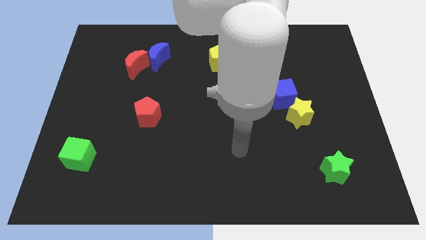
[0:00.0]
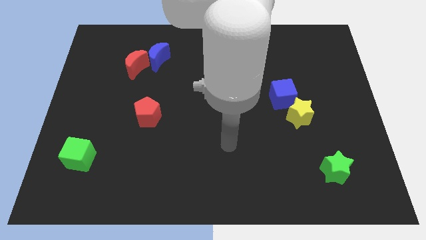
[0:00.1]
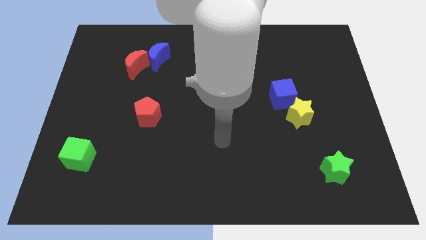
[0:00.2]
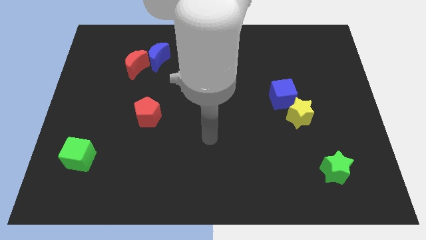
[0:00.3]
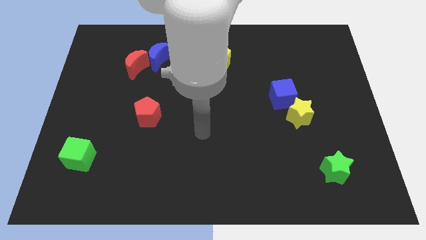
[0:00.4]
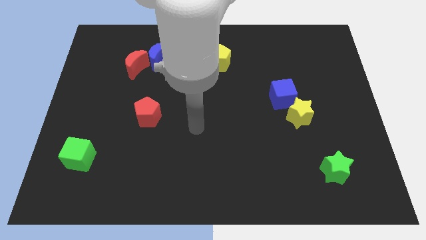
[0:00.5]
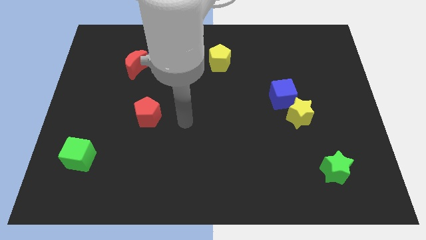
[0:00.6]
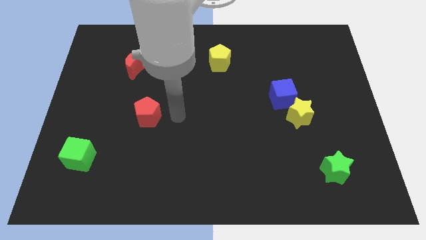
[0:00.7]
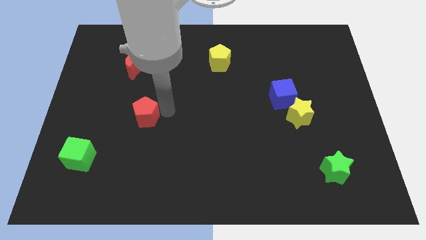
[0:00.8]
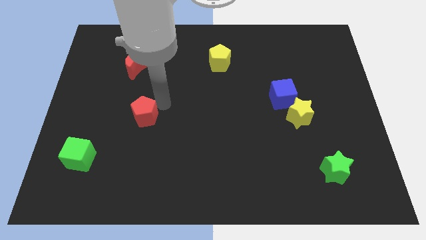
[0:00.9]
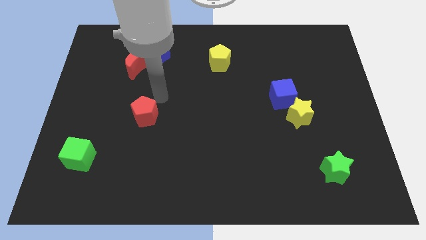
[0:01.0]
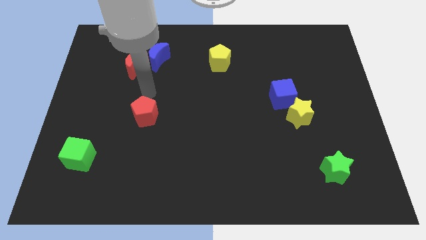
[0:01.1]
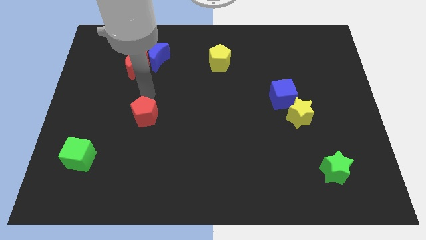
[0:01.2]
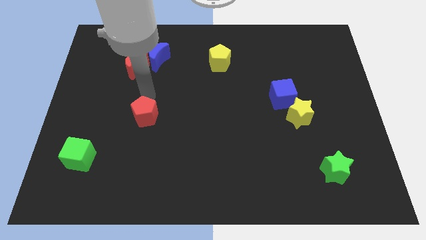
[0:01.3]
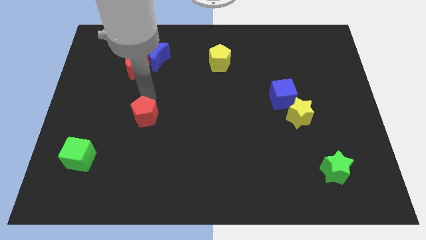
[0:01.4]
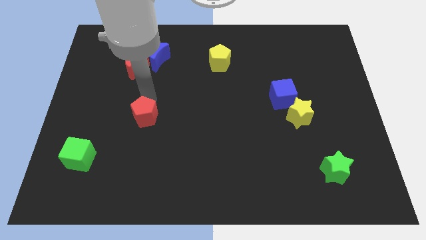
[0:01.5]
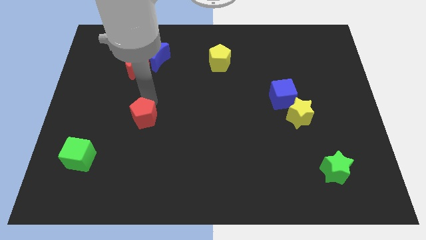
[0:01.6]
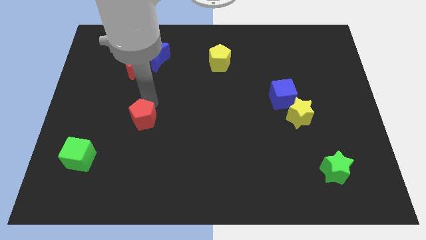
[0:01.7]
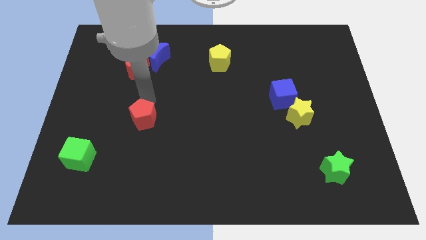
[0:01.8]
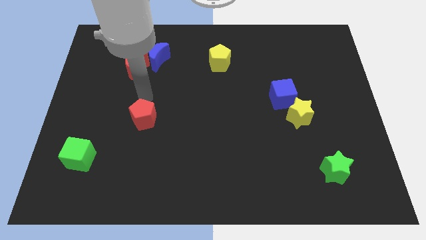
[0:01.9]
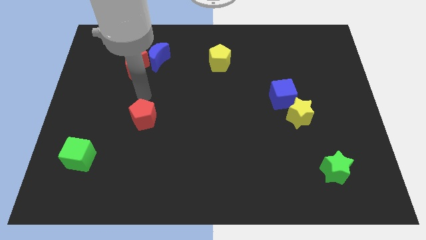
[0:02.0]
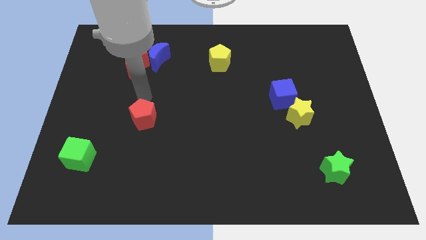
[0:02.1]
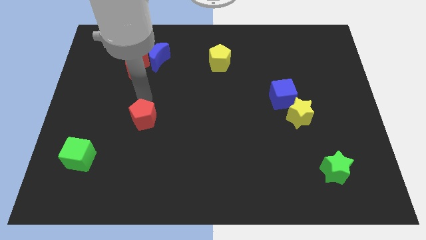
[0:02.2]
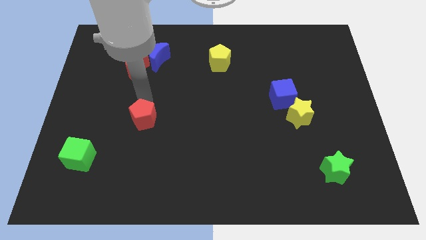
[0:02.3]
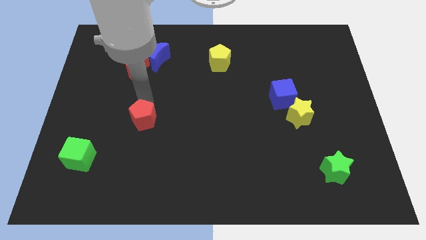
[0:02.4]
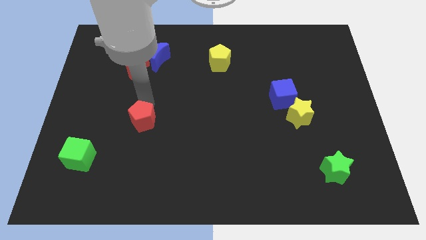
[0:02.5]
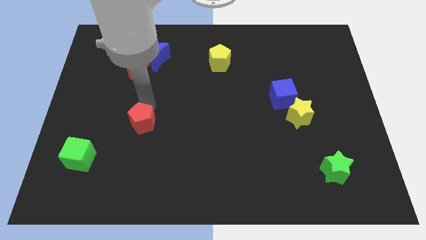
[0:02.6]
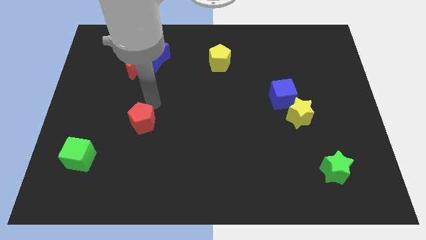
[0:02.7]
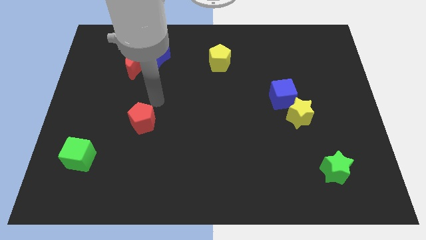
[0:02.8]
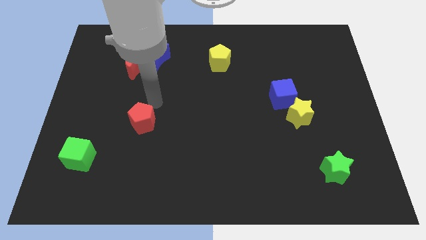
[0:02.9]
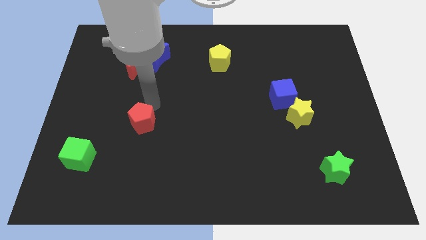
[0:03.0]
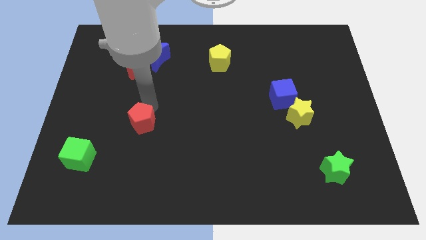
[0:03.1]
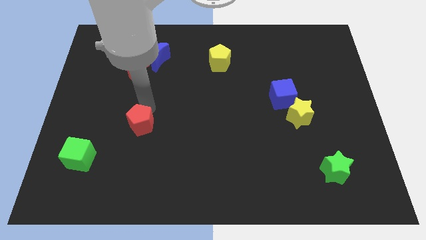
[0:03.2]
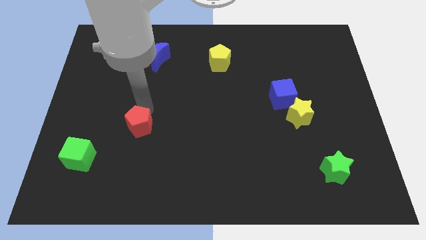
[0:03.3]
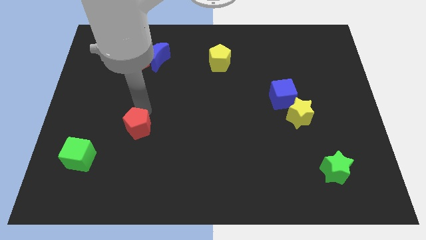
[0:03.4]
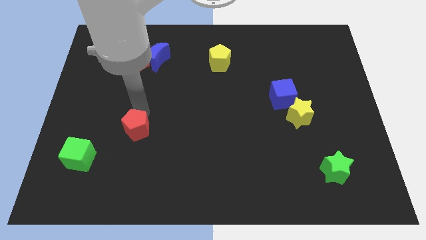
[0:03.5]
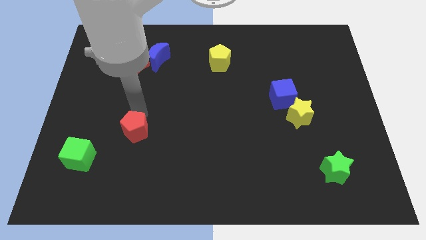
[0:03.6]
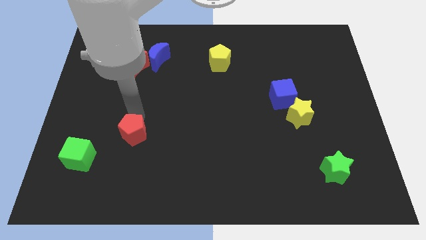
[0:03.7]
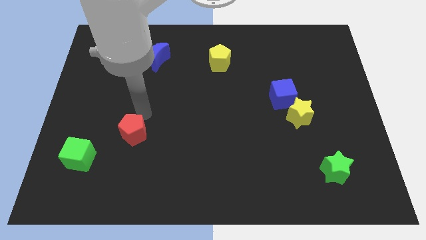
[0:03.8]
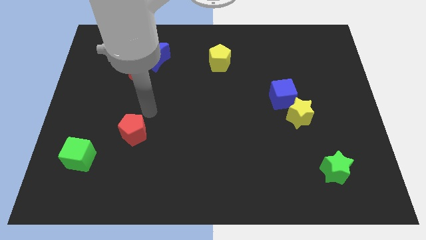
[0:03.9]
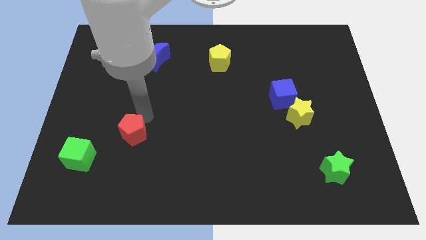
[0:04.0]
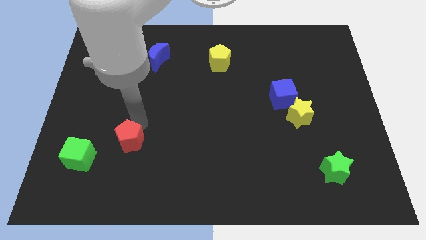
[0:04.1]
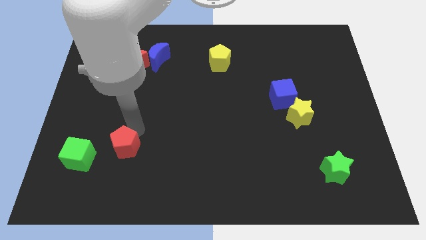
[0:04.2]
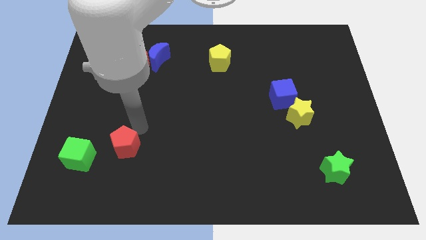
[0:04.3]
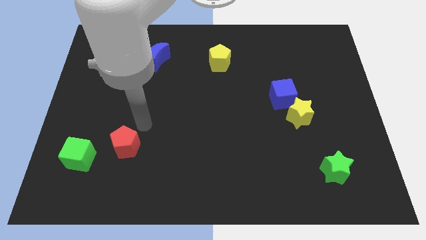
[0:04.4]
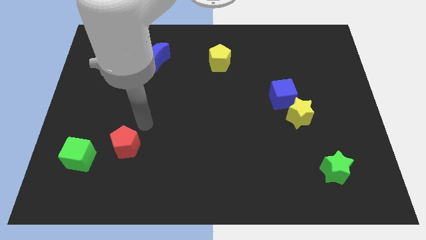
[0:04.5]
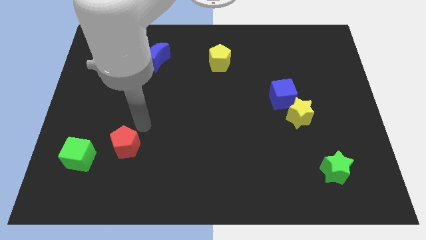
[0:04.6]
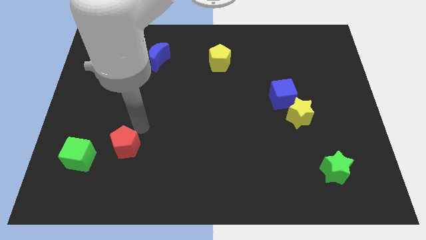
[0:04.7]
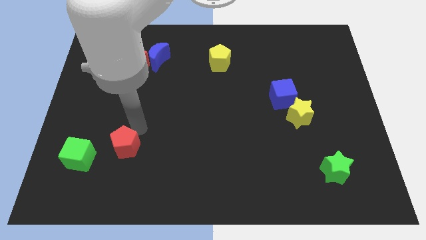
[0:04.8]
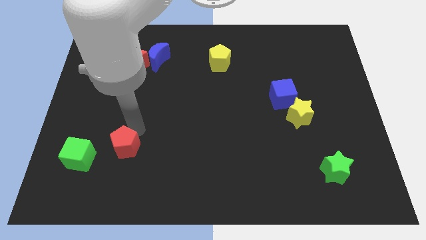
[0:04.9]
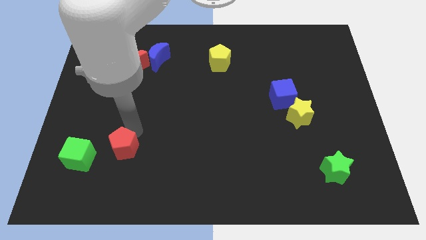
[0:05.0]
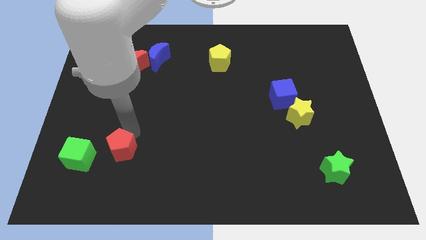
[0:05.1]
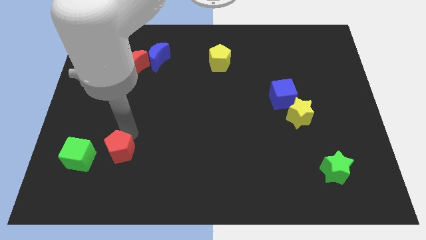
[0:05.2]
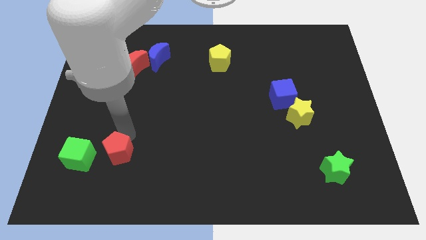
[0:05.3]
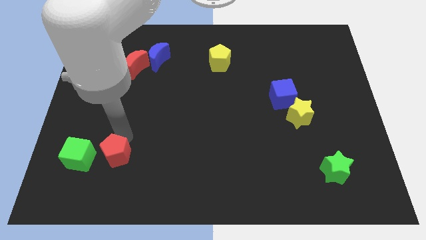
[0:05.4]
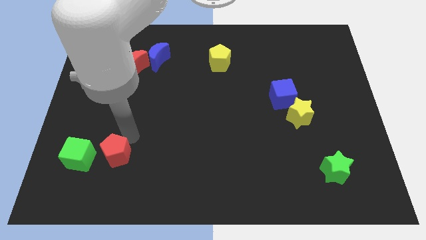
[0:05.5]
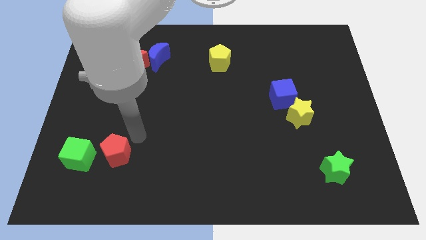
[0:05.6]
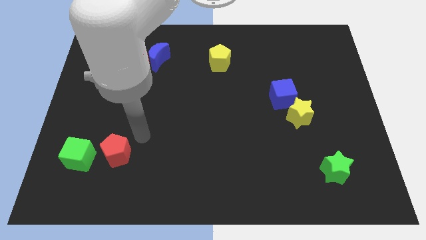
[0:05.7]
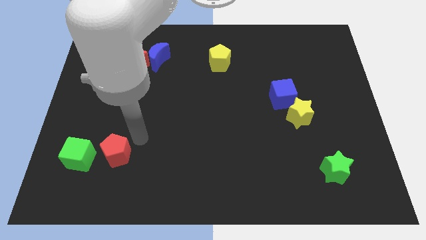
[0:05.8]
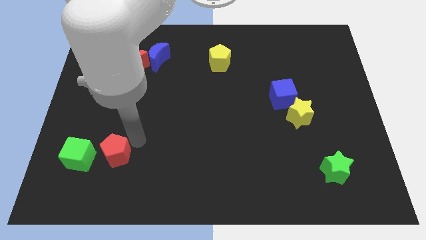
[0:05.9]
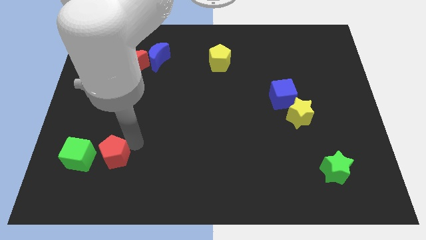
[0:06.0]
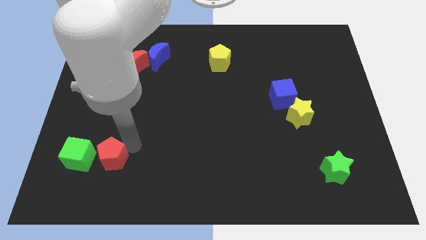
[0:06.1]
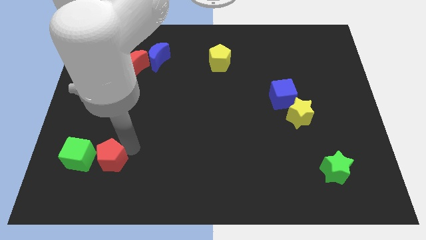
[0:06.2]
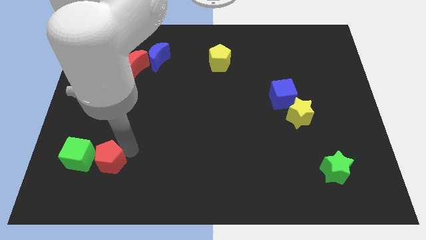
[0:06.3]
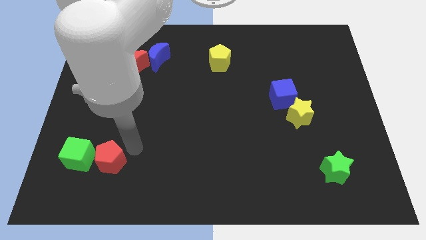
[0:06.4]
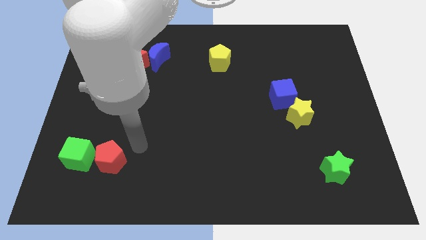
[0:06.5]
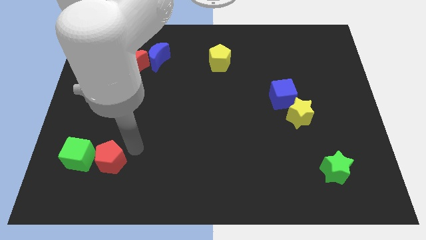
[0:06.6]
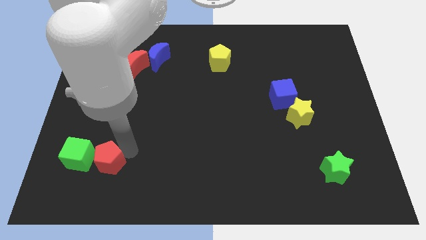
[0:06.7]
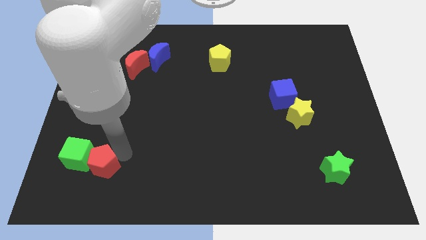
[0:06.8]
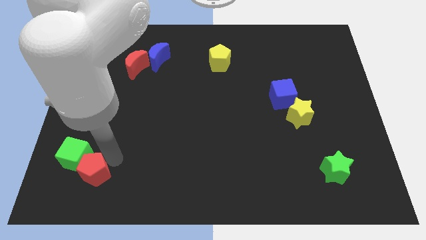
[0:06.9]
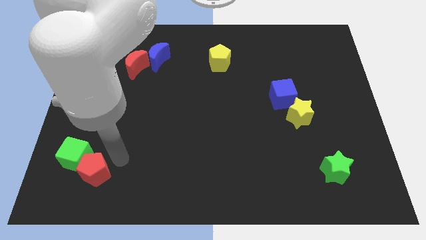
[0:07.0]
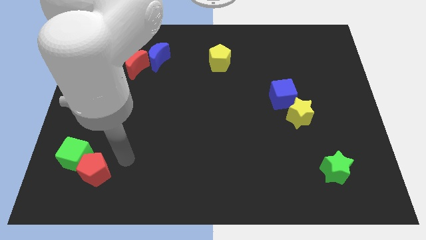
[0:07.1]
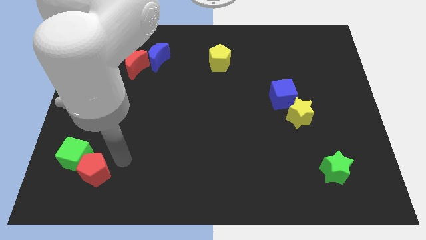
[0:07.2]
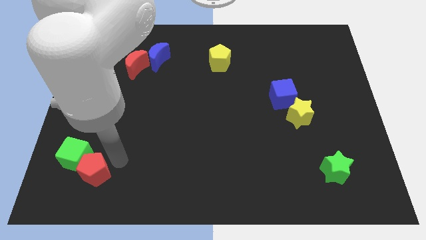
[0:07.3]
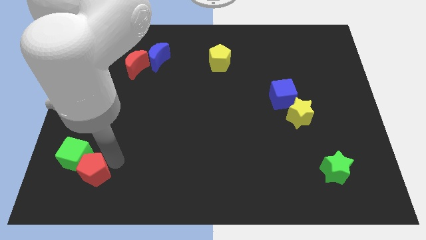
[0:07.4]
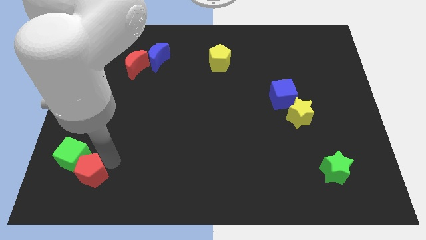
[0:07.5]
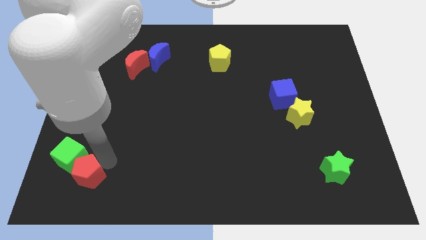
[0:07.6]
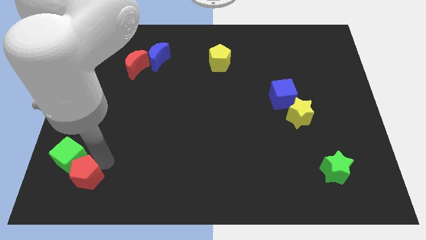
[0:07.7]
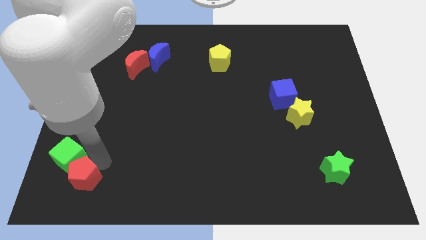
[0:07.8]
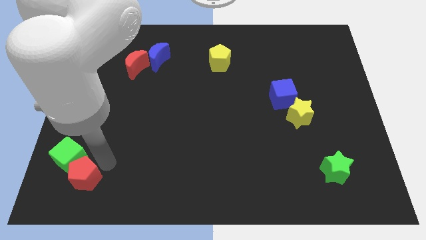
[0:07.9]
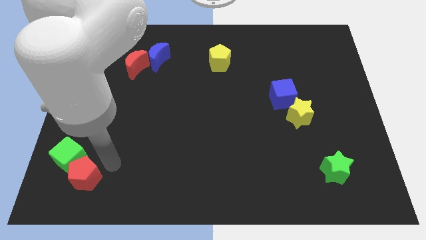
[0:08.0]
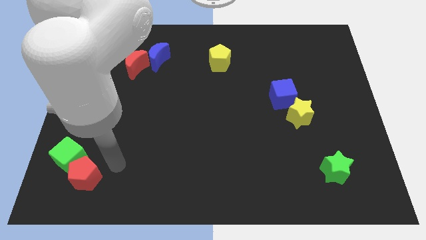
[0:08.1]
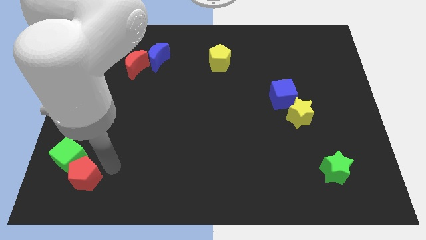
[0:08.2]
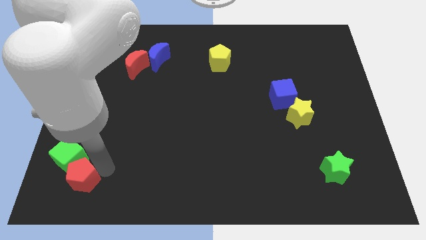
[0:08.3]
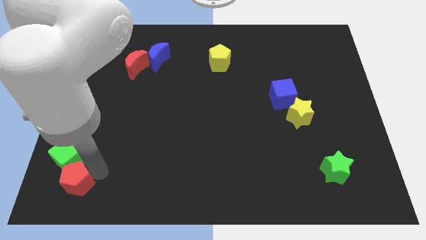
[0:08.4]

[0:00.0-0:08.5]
push the red pentagon to the bottom left
